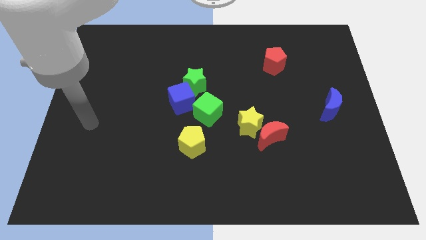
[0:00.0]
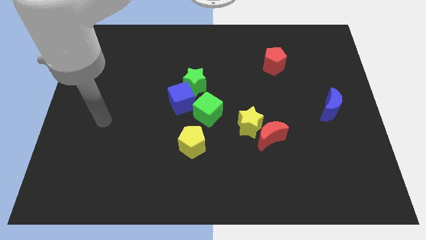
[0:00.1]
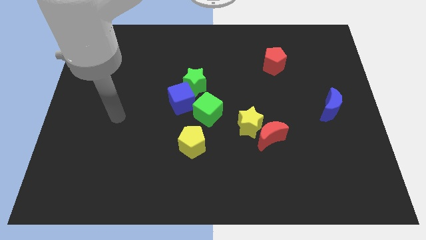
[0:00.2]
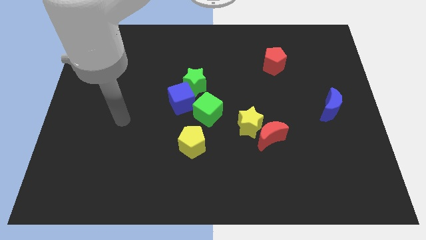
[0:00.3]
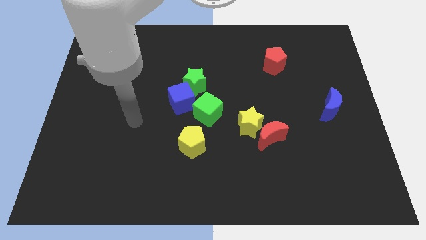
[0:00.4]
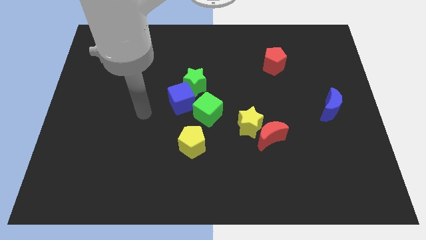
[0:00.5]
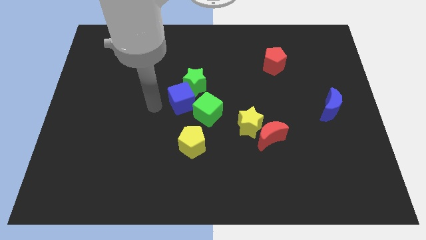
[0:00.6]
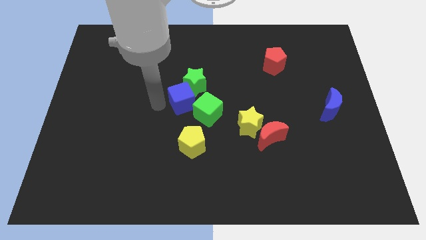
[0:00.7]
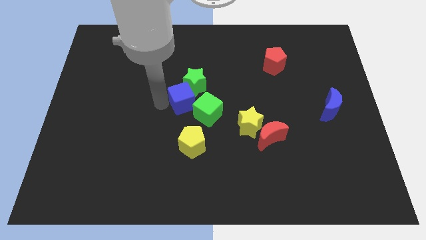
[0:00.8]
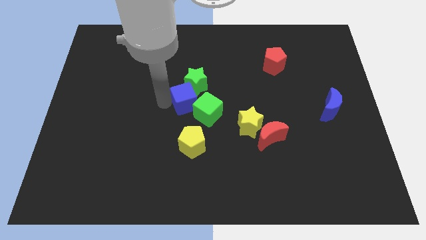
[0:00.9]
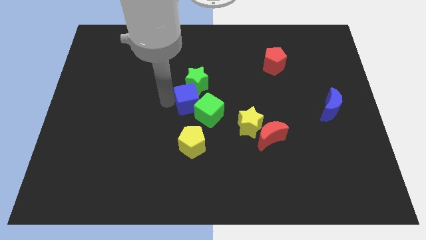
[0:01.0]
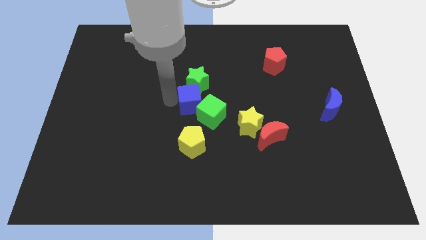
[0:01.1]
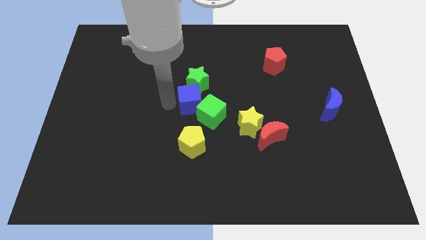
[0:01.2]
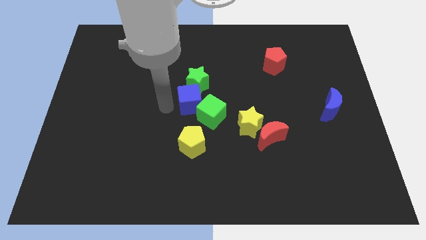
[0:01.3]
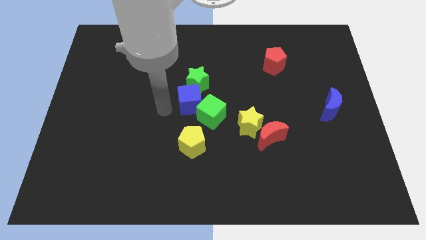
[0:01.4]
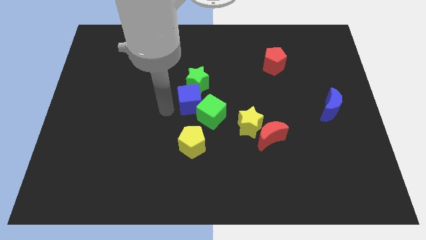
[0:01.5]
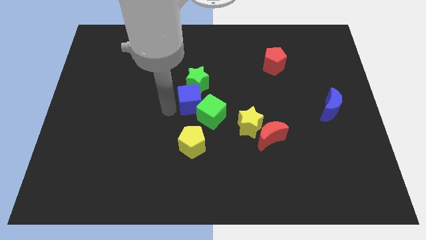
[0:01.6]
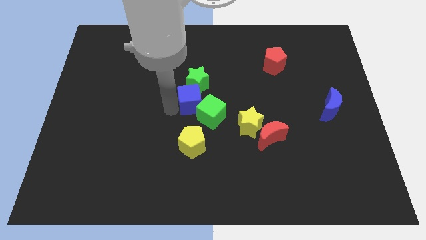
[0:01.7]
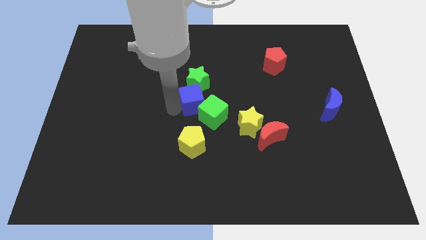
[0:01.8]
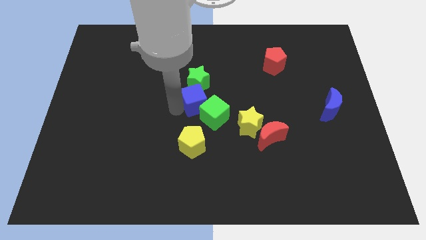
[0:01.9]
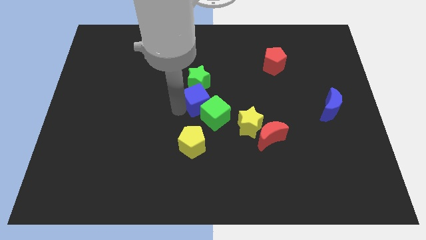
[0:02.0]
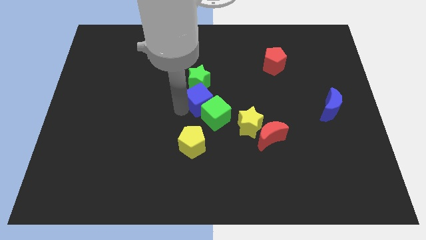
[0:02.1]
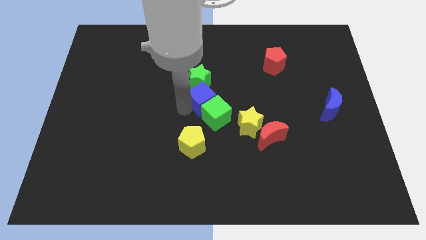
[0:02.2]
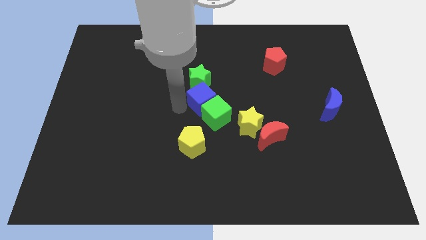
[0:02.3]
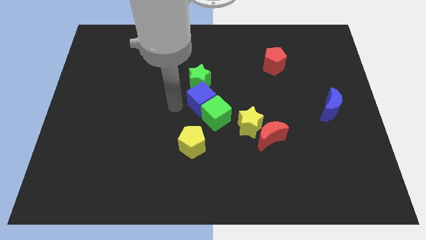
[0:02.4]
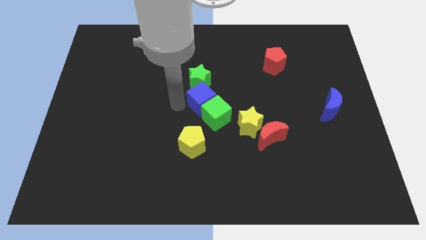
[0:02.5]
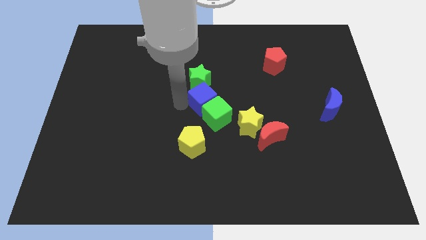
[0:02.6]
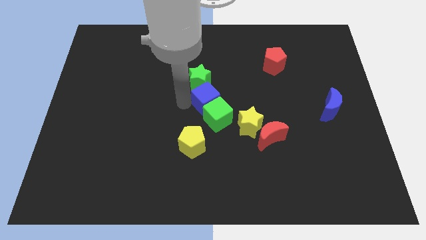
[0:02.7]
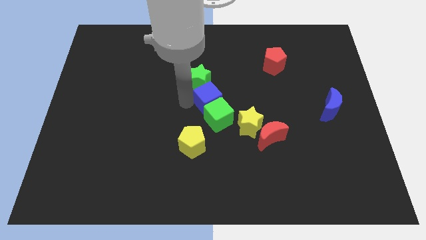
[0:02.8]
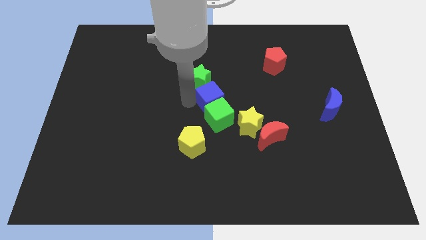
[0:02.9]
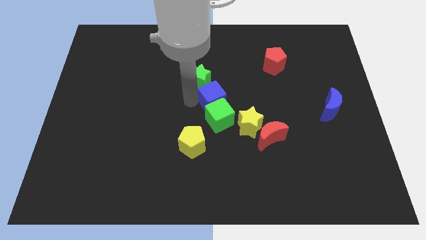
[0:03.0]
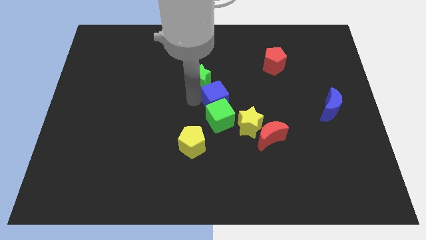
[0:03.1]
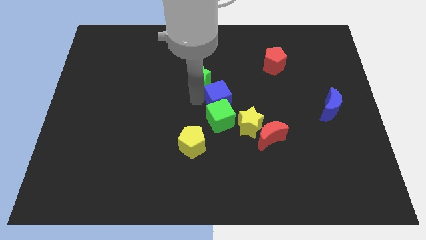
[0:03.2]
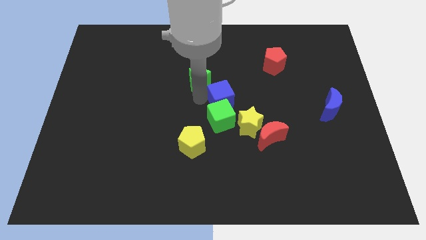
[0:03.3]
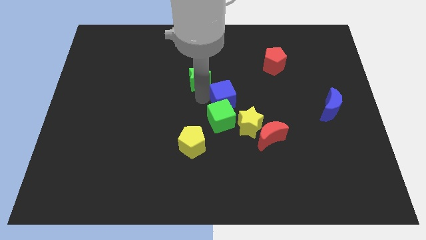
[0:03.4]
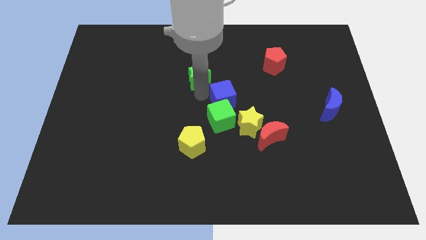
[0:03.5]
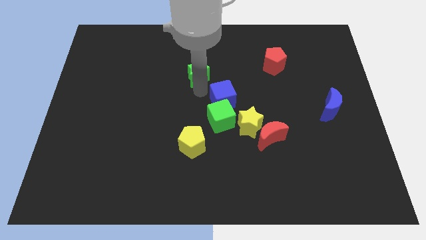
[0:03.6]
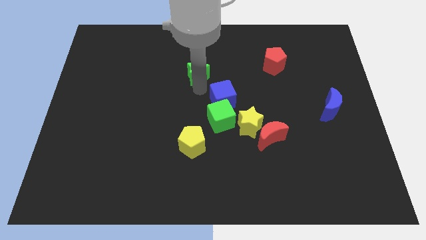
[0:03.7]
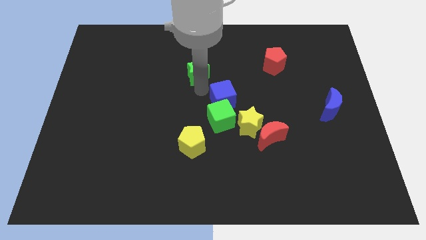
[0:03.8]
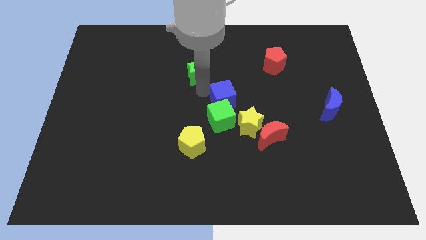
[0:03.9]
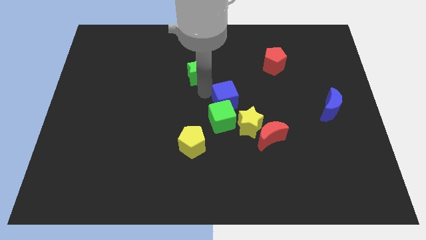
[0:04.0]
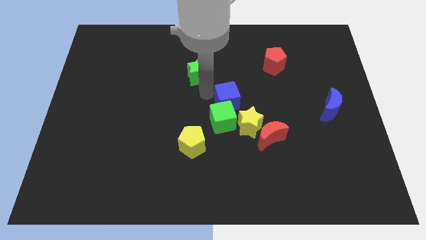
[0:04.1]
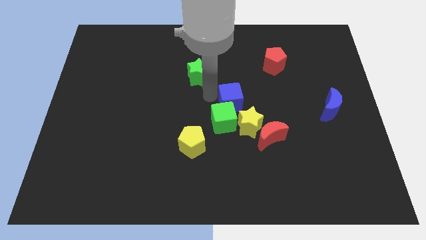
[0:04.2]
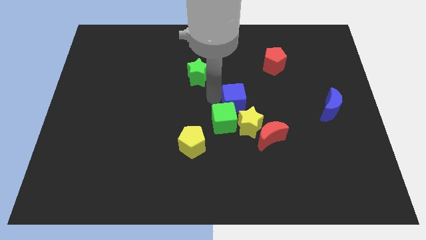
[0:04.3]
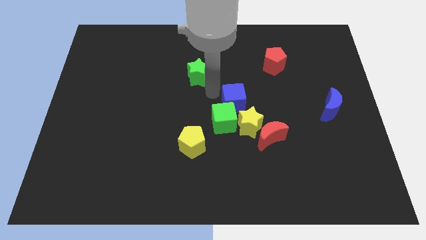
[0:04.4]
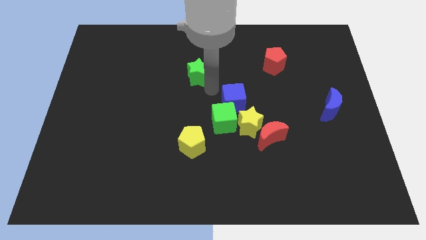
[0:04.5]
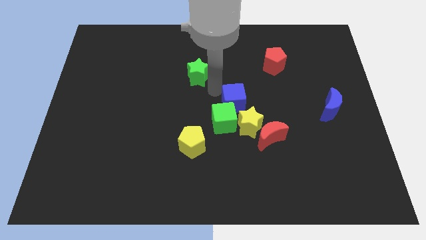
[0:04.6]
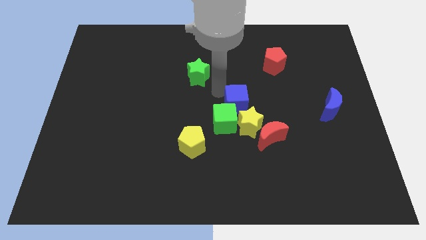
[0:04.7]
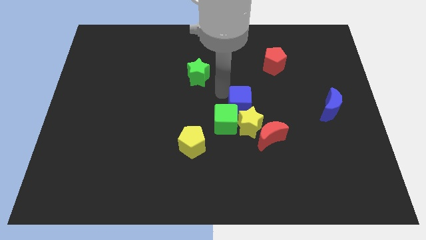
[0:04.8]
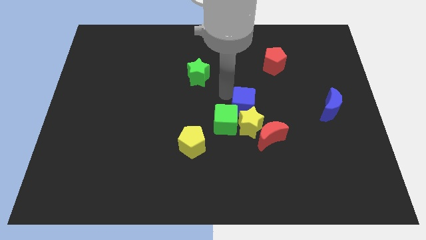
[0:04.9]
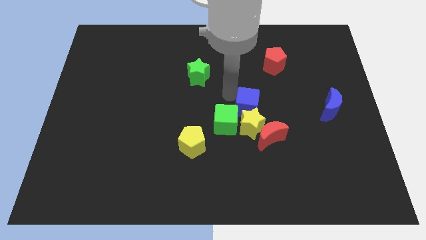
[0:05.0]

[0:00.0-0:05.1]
put the blue cube to the right of the green cube

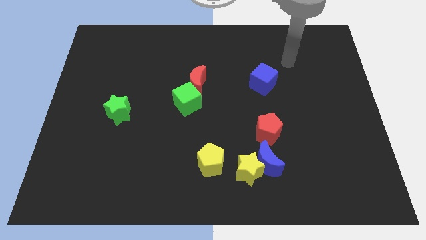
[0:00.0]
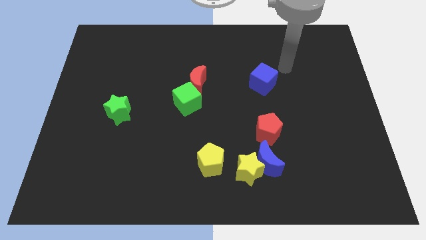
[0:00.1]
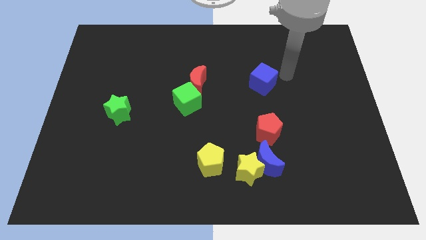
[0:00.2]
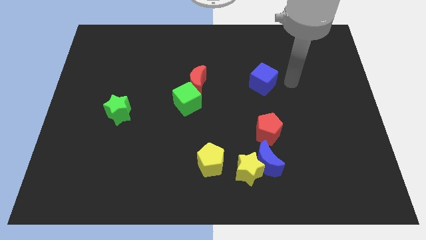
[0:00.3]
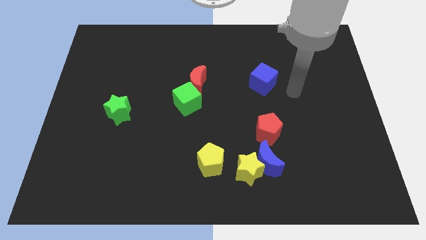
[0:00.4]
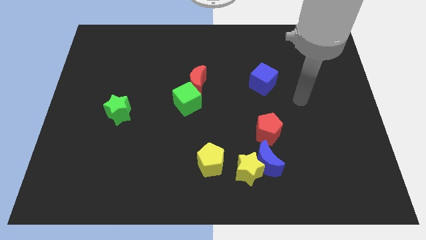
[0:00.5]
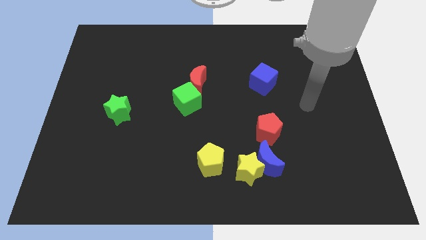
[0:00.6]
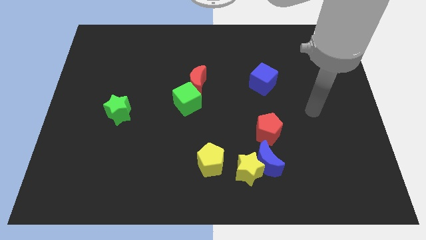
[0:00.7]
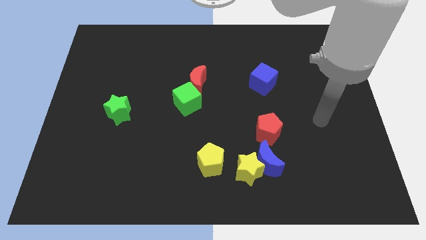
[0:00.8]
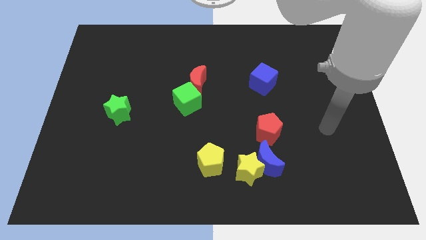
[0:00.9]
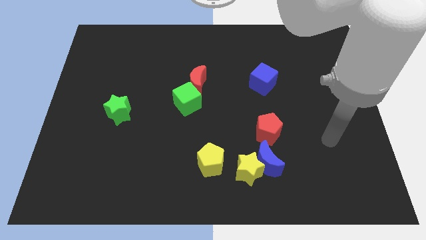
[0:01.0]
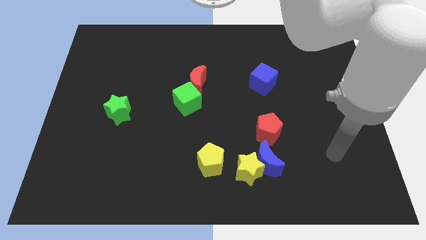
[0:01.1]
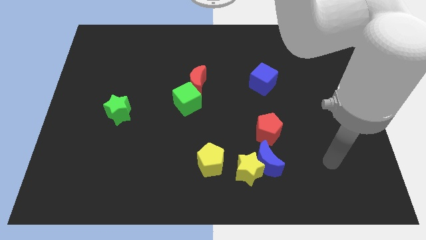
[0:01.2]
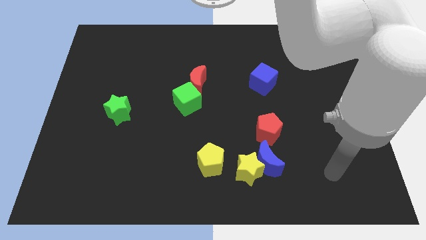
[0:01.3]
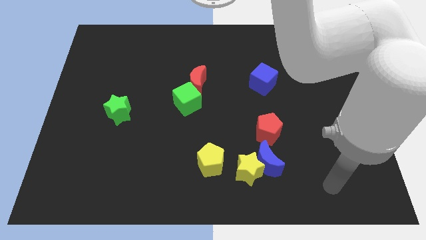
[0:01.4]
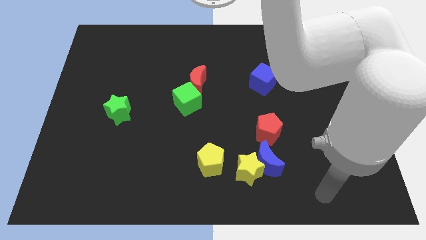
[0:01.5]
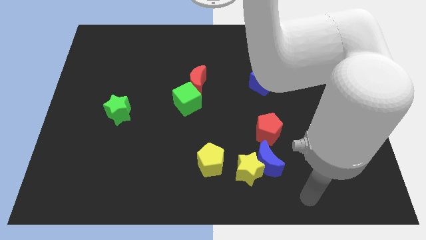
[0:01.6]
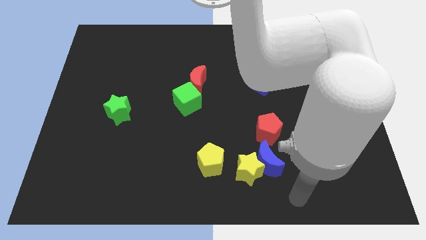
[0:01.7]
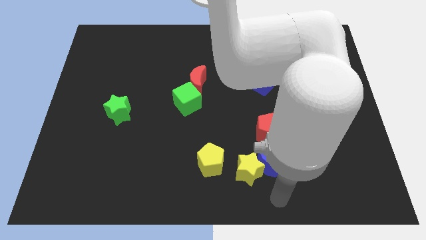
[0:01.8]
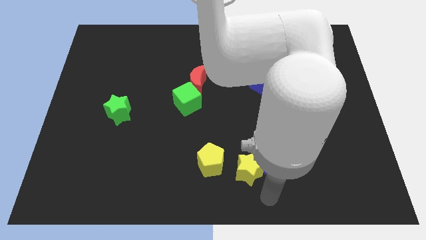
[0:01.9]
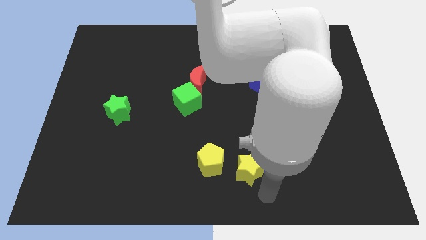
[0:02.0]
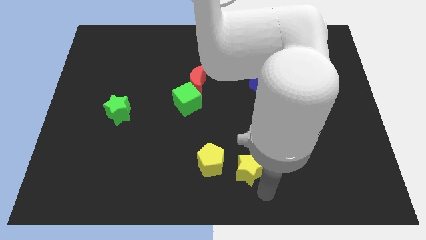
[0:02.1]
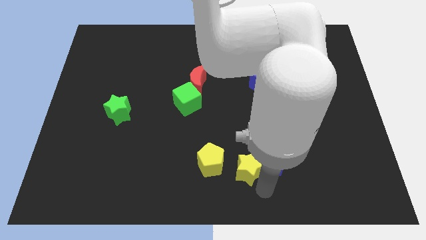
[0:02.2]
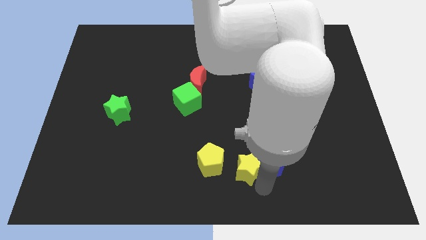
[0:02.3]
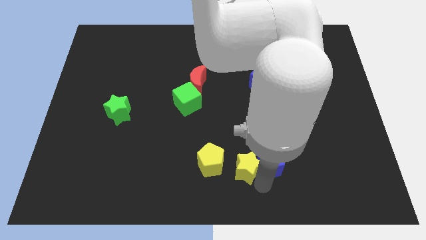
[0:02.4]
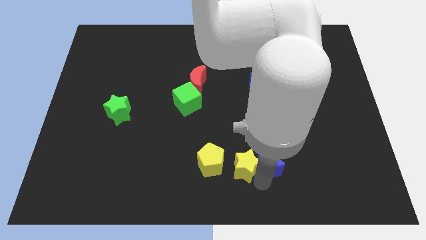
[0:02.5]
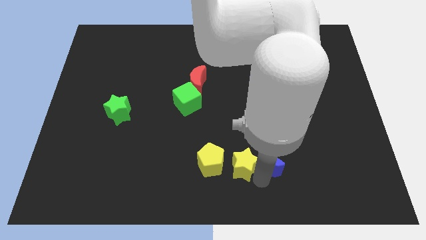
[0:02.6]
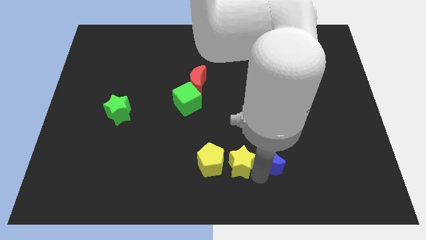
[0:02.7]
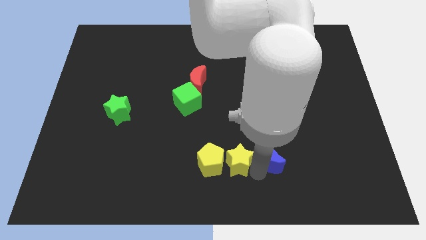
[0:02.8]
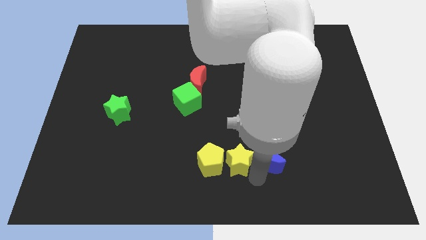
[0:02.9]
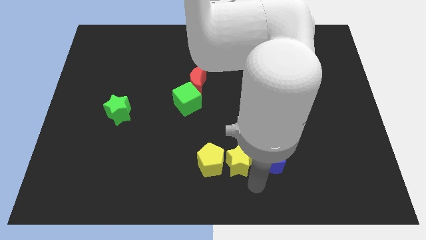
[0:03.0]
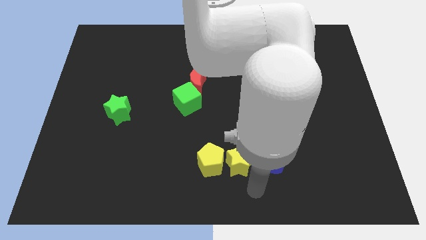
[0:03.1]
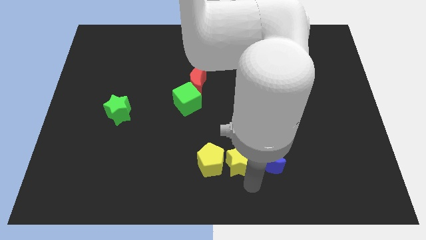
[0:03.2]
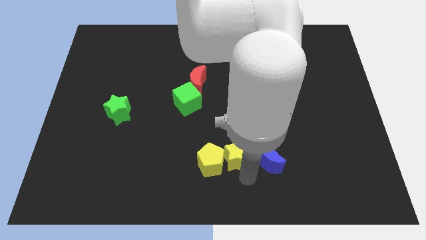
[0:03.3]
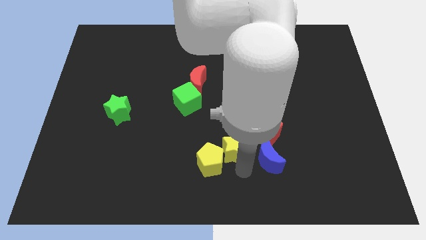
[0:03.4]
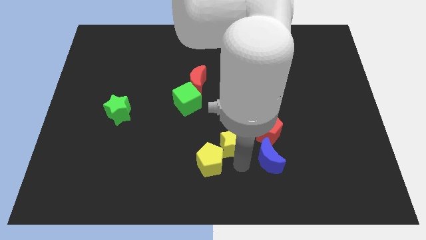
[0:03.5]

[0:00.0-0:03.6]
slide the yellow star above the yellow pentagon
